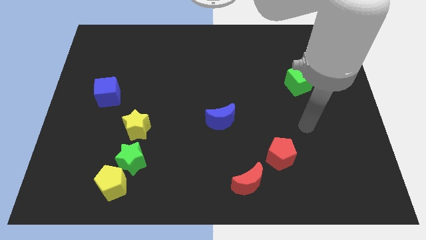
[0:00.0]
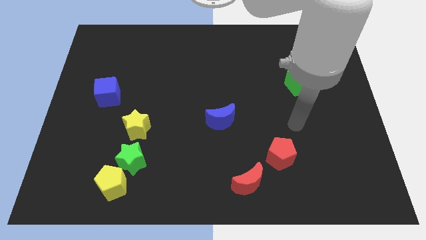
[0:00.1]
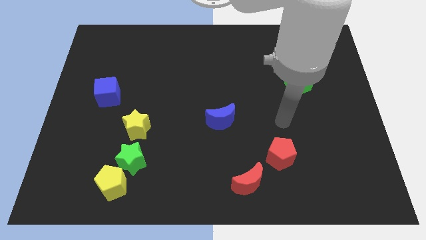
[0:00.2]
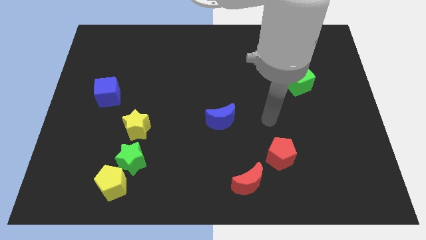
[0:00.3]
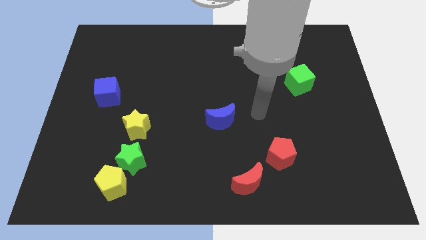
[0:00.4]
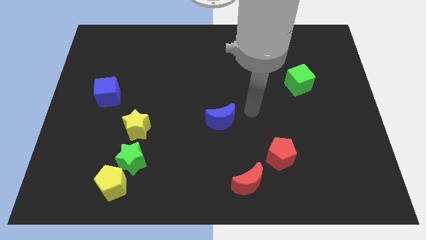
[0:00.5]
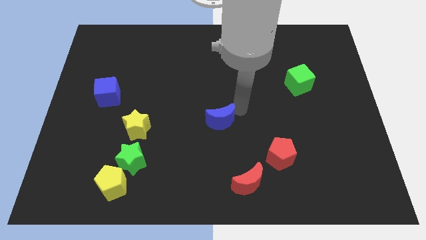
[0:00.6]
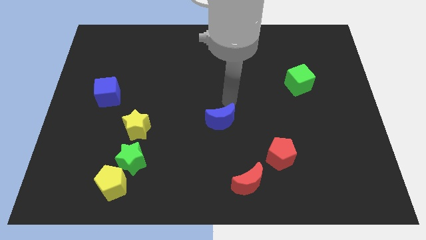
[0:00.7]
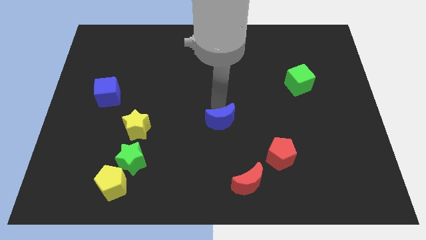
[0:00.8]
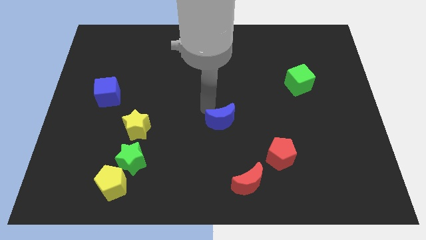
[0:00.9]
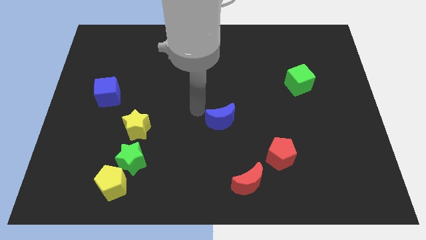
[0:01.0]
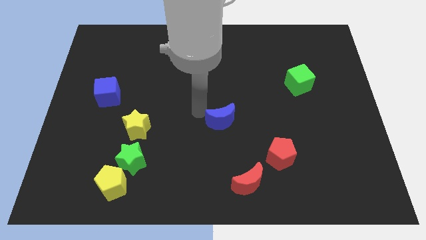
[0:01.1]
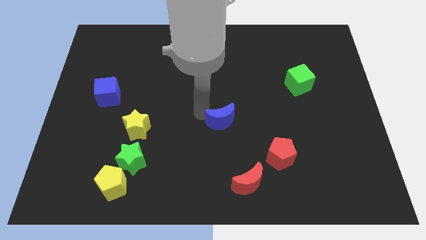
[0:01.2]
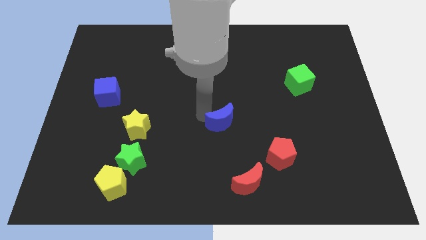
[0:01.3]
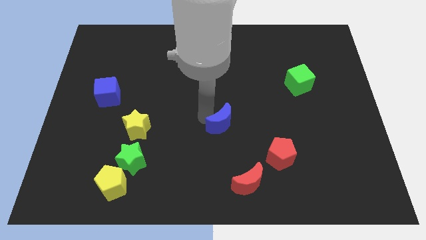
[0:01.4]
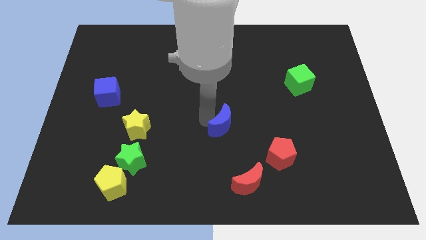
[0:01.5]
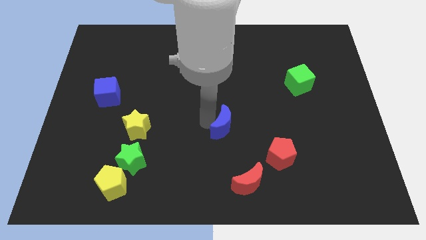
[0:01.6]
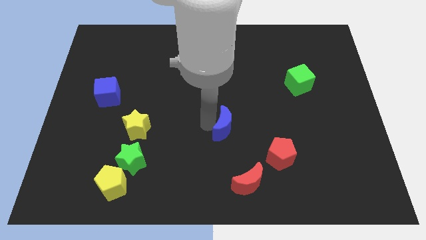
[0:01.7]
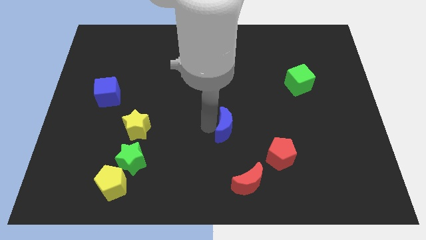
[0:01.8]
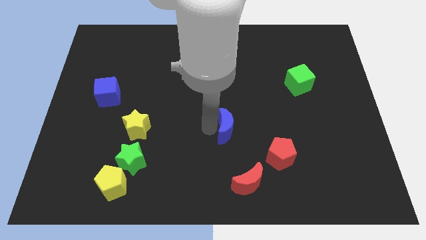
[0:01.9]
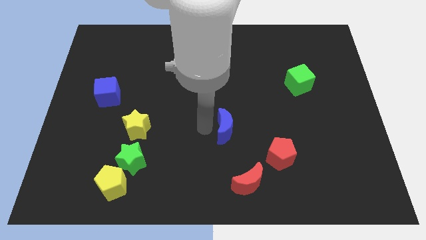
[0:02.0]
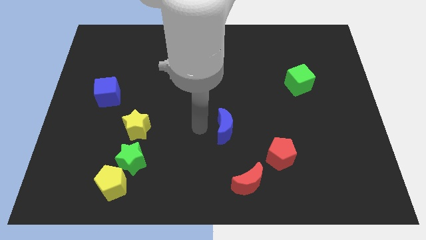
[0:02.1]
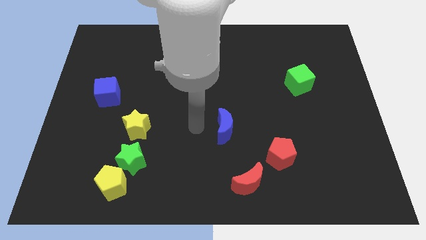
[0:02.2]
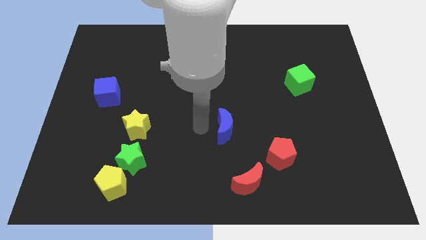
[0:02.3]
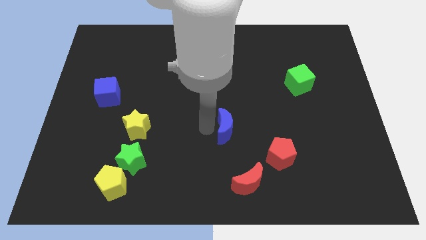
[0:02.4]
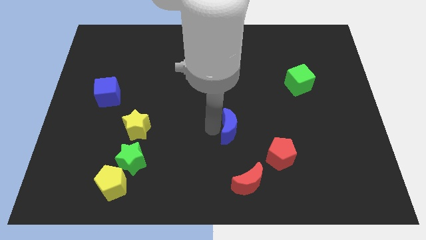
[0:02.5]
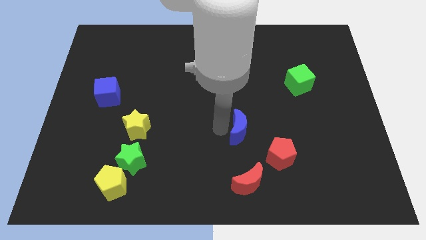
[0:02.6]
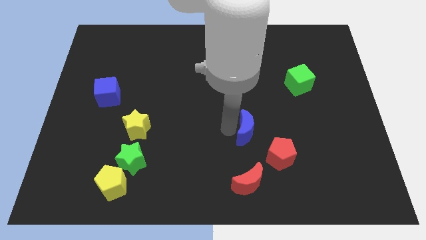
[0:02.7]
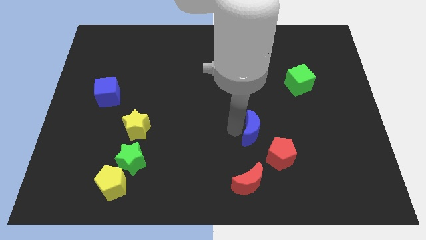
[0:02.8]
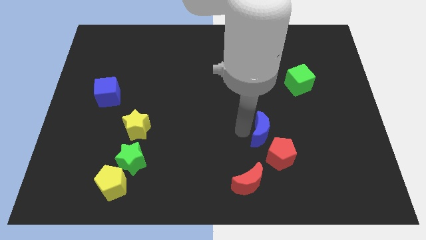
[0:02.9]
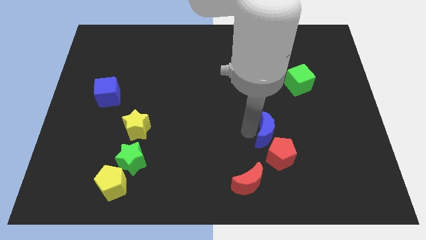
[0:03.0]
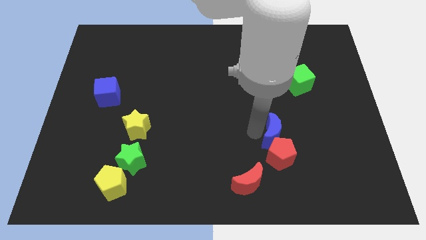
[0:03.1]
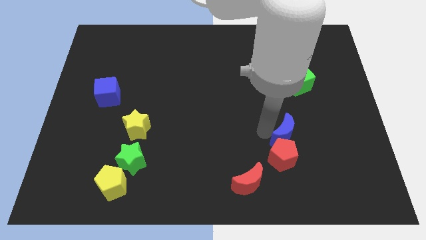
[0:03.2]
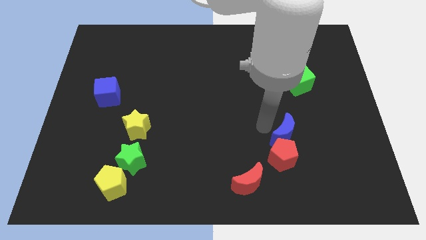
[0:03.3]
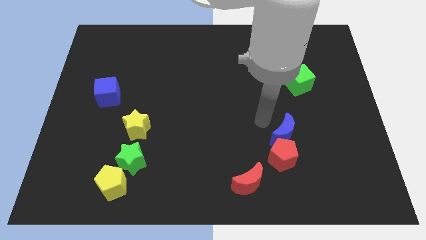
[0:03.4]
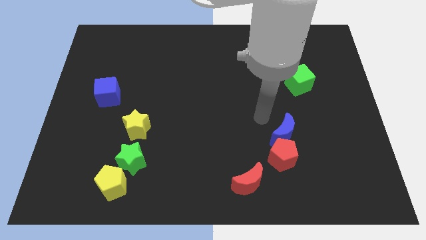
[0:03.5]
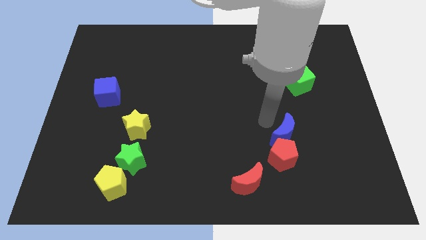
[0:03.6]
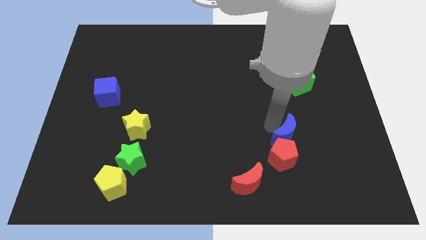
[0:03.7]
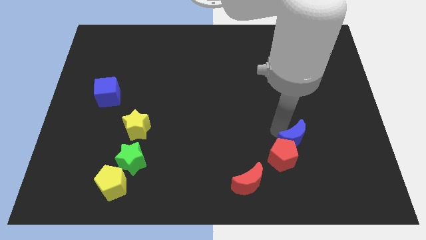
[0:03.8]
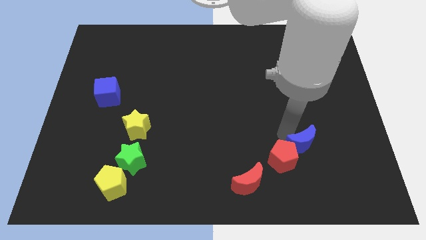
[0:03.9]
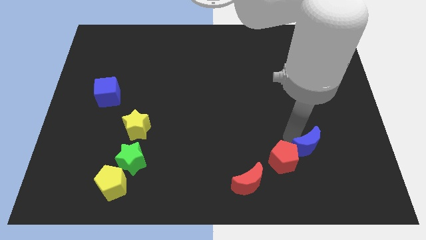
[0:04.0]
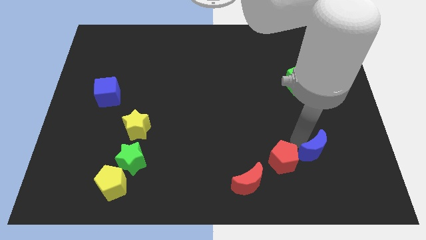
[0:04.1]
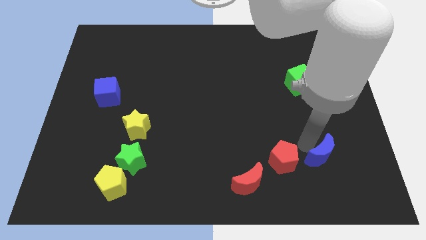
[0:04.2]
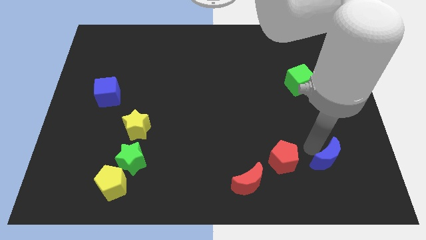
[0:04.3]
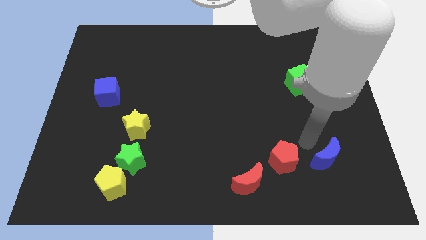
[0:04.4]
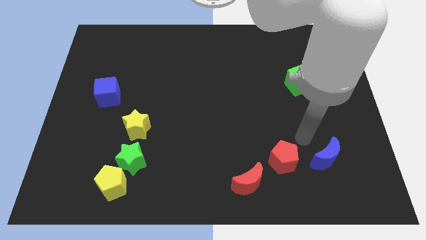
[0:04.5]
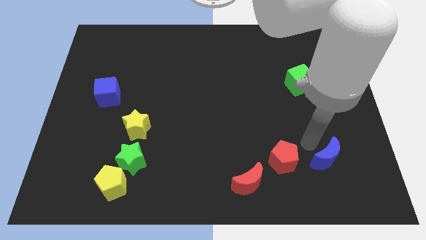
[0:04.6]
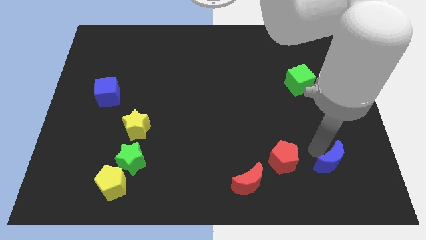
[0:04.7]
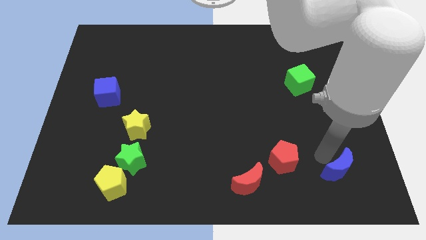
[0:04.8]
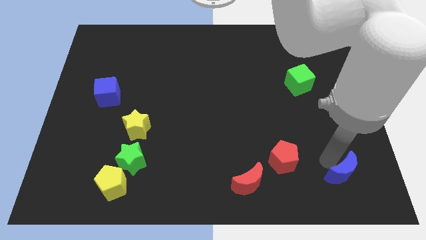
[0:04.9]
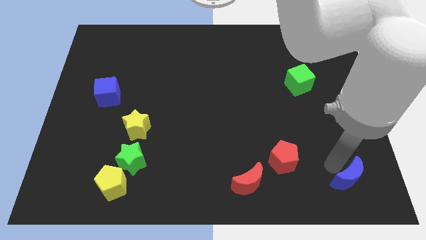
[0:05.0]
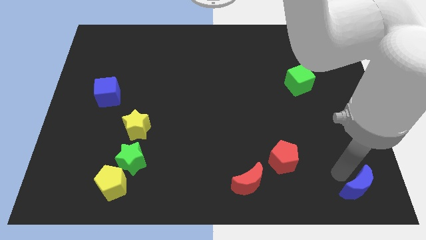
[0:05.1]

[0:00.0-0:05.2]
push the blue moon to the bottom right corner

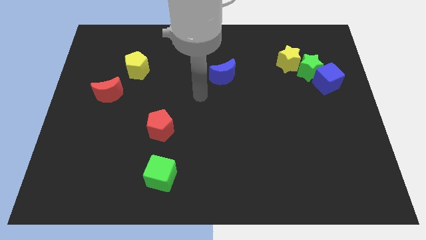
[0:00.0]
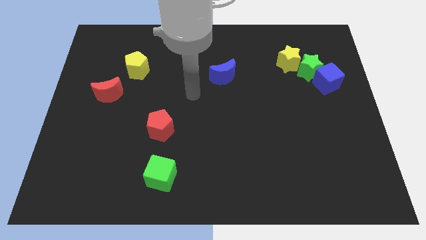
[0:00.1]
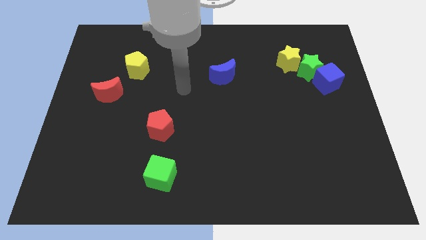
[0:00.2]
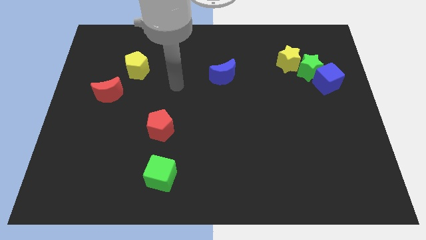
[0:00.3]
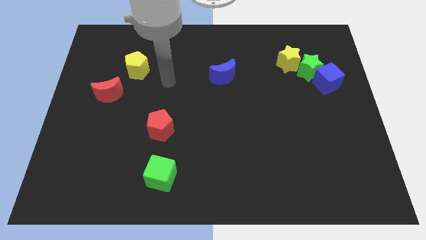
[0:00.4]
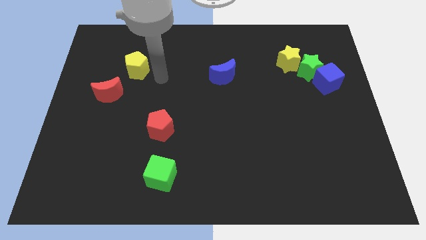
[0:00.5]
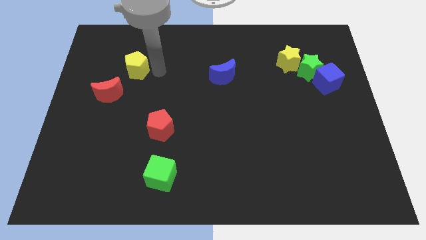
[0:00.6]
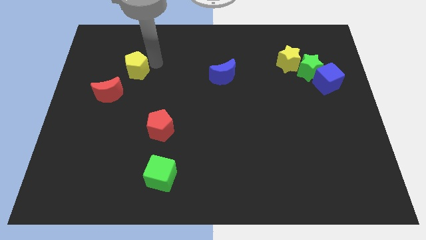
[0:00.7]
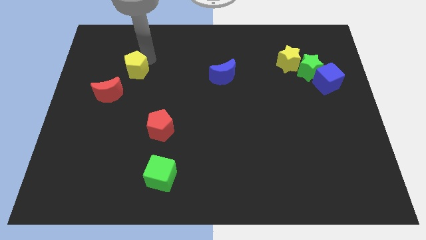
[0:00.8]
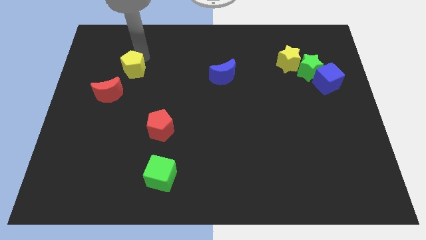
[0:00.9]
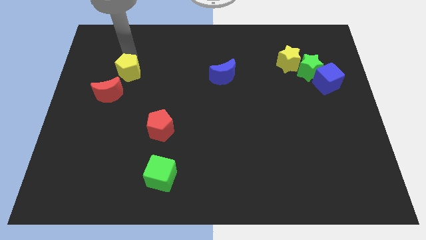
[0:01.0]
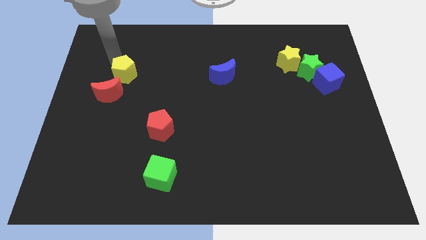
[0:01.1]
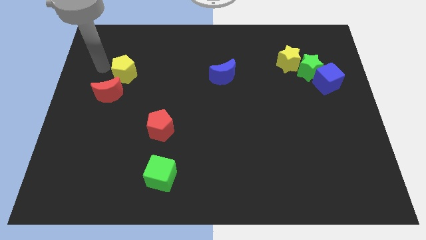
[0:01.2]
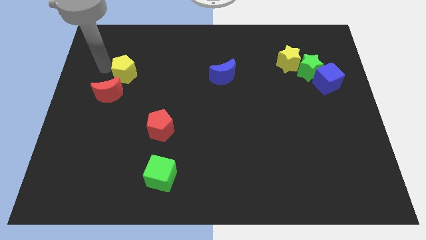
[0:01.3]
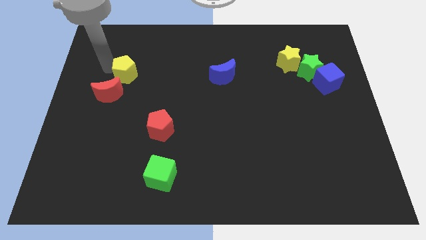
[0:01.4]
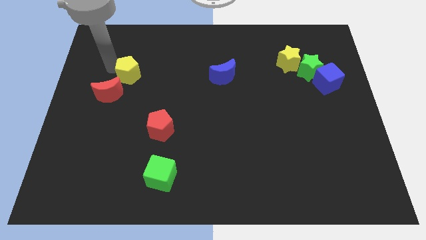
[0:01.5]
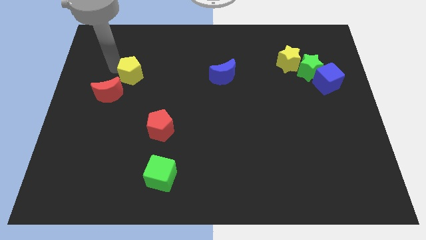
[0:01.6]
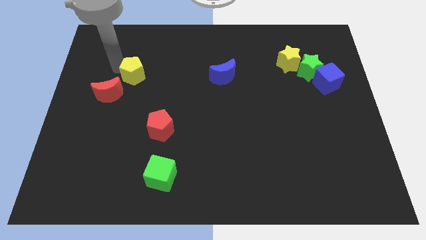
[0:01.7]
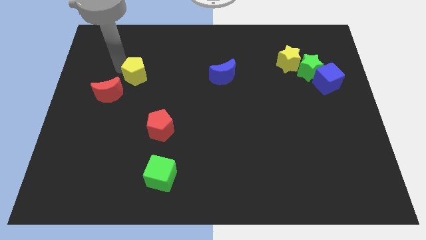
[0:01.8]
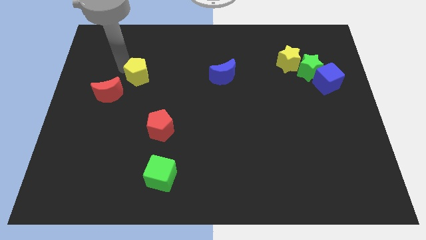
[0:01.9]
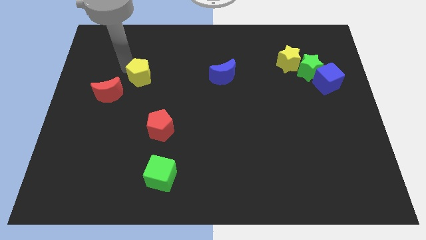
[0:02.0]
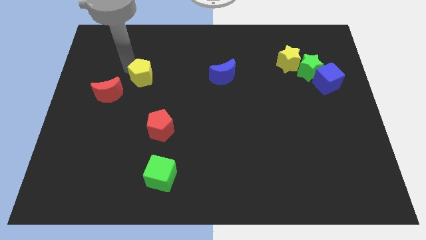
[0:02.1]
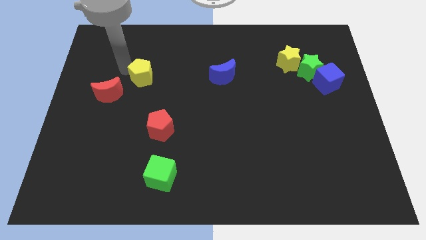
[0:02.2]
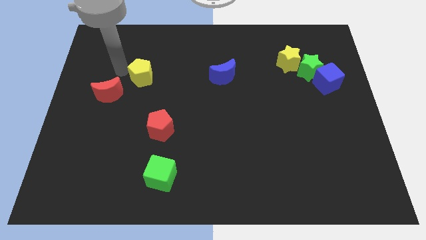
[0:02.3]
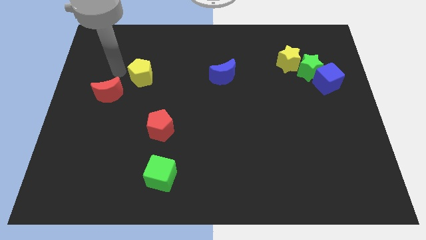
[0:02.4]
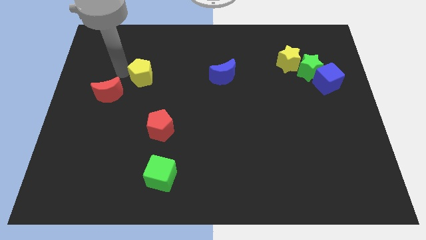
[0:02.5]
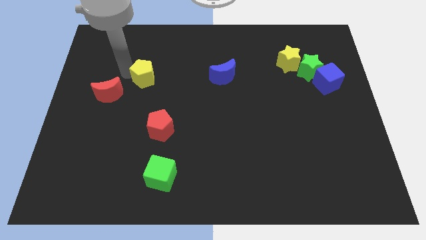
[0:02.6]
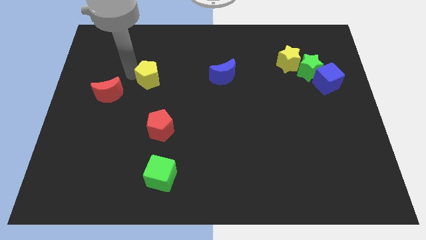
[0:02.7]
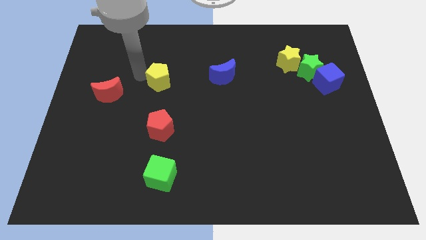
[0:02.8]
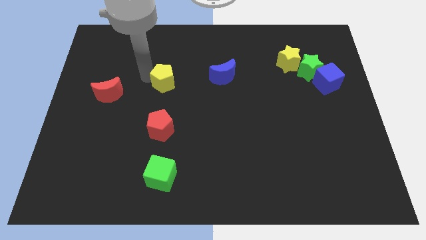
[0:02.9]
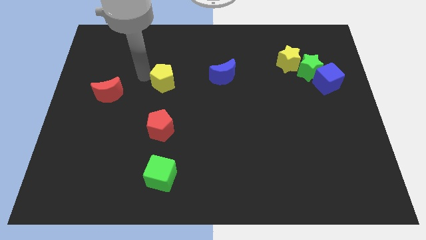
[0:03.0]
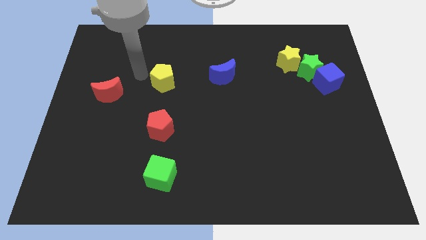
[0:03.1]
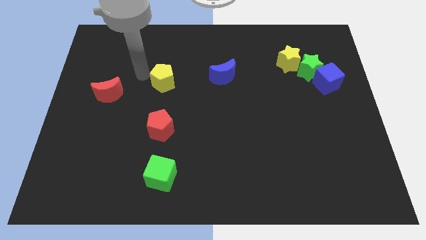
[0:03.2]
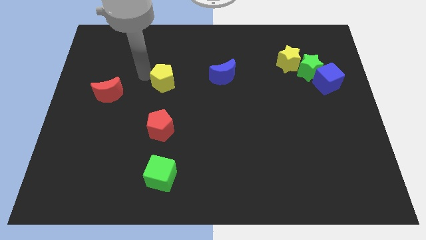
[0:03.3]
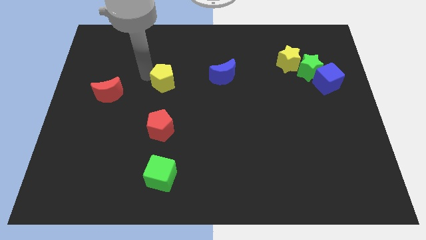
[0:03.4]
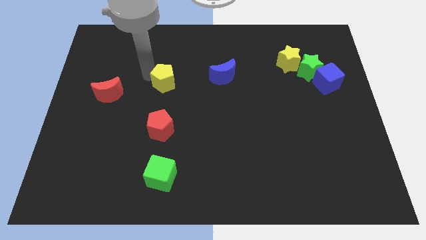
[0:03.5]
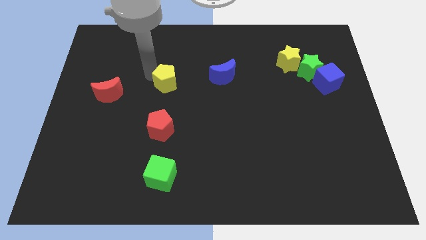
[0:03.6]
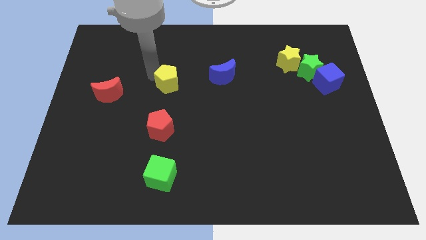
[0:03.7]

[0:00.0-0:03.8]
slide the yellow pentagon to the middle of the board
